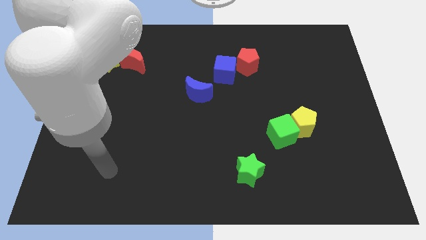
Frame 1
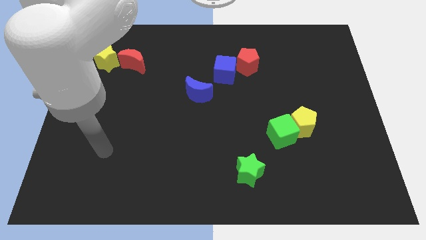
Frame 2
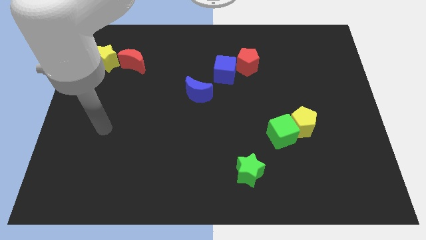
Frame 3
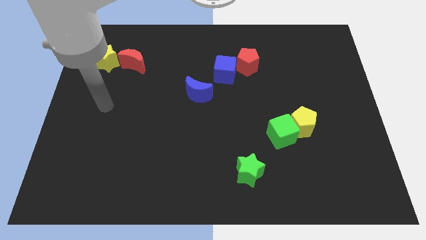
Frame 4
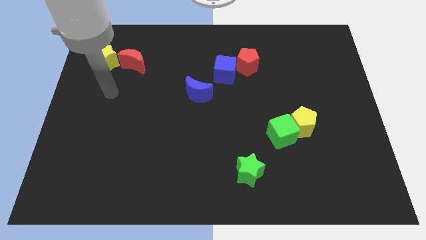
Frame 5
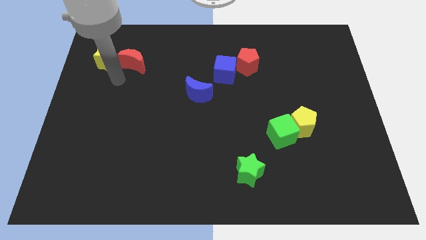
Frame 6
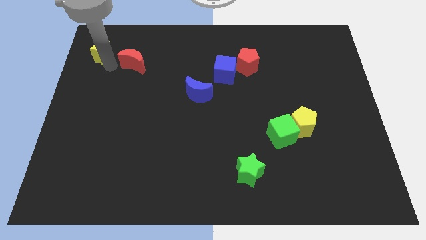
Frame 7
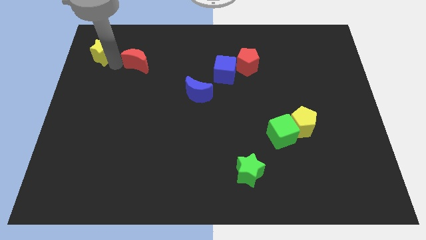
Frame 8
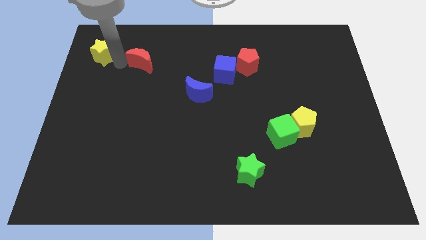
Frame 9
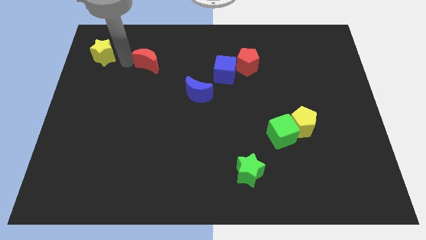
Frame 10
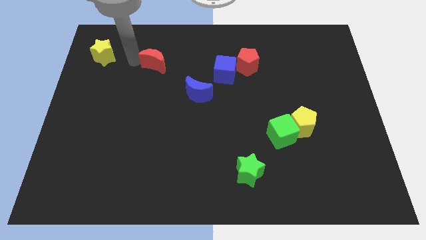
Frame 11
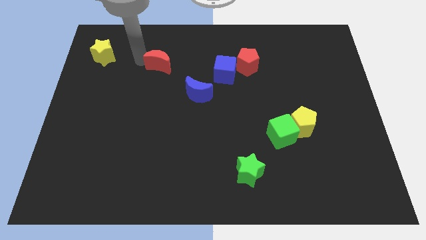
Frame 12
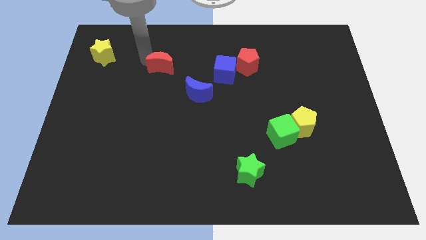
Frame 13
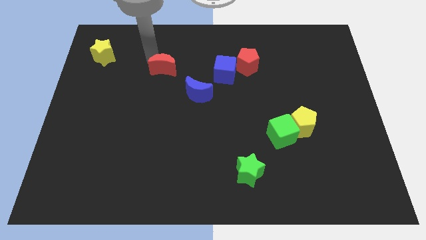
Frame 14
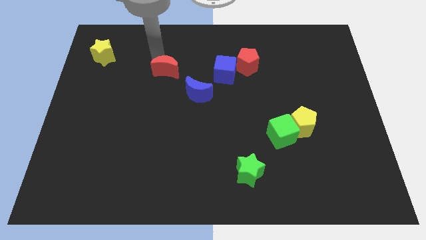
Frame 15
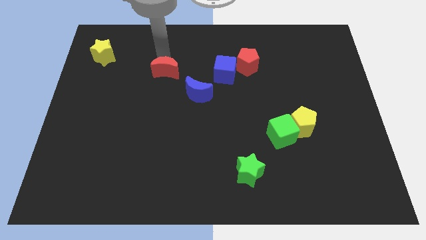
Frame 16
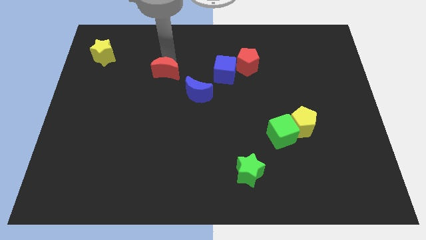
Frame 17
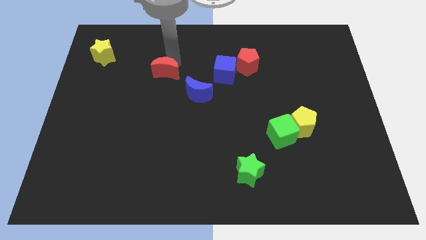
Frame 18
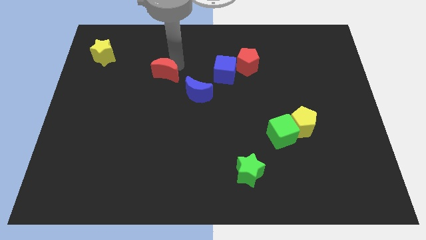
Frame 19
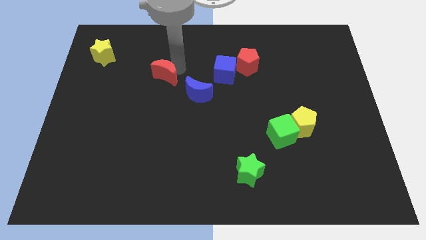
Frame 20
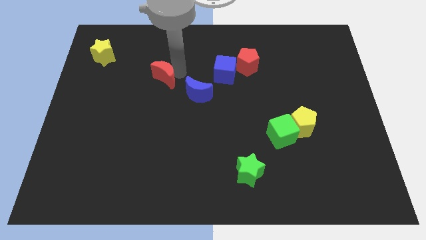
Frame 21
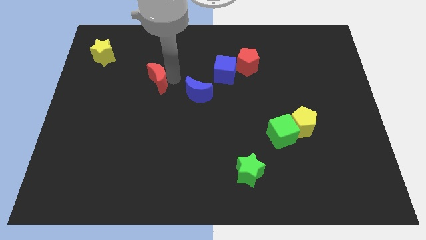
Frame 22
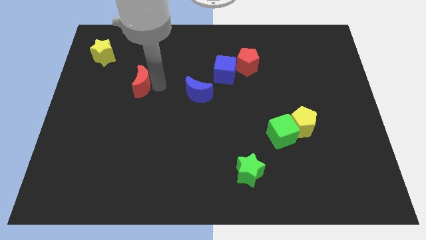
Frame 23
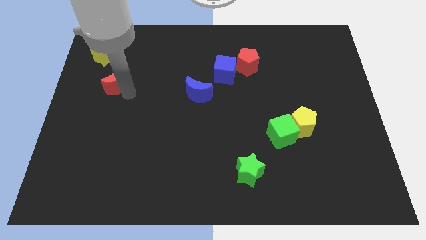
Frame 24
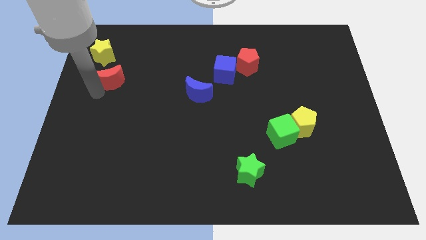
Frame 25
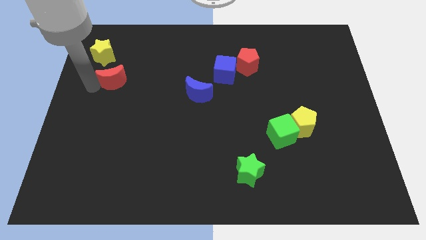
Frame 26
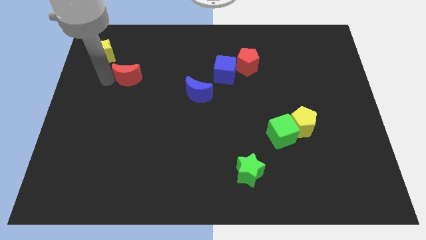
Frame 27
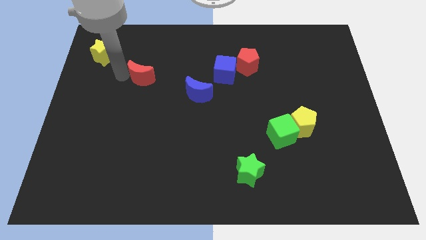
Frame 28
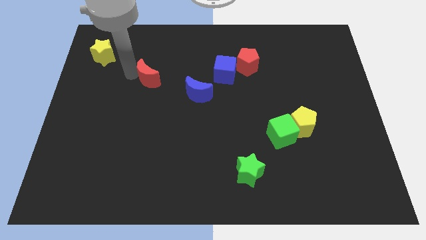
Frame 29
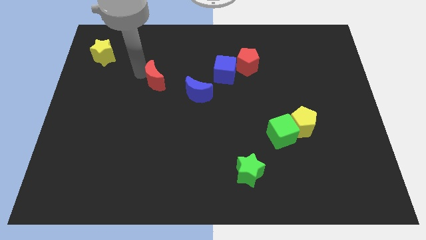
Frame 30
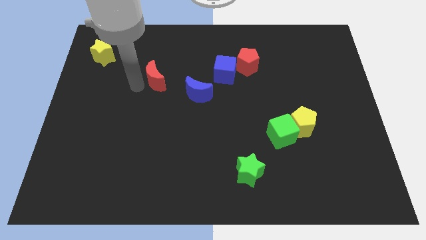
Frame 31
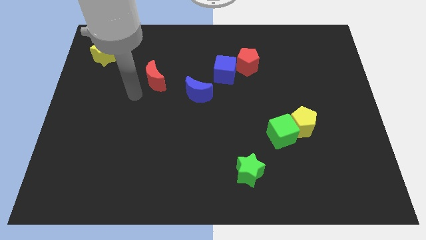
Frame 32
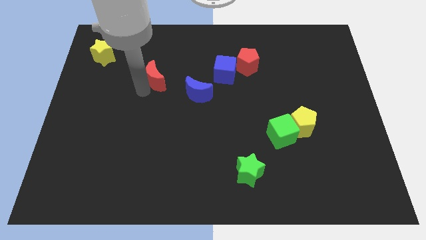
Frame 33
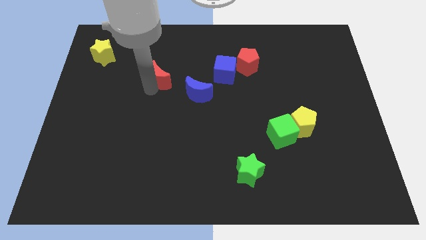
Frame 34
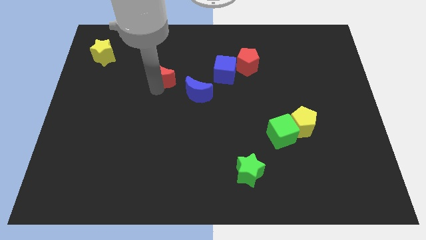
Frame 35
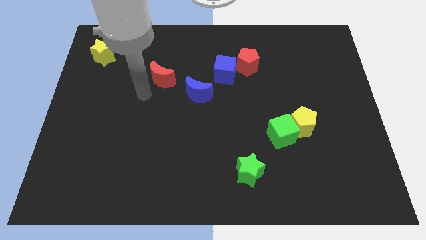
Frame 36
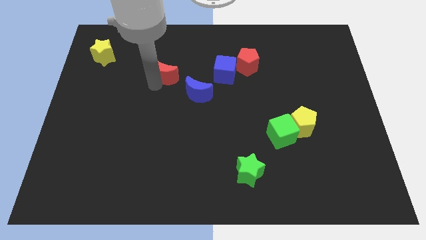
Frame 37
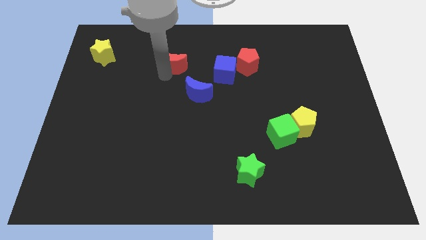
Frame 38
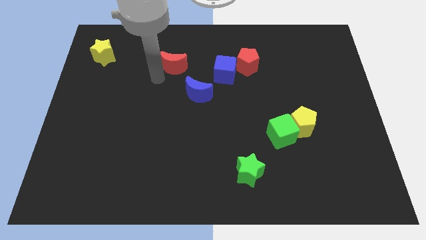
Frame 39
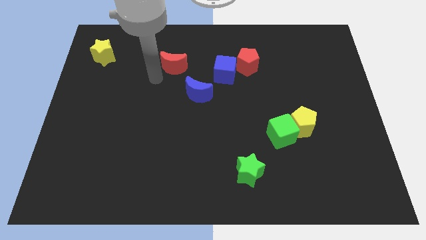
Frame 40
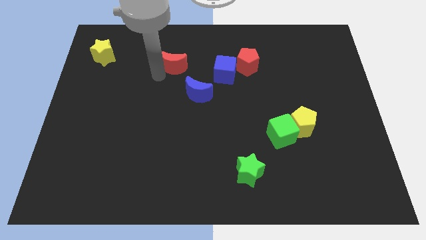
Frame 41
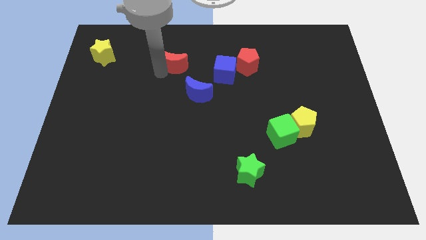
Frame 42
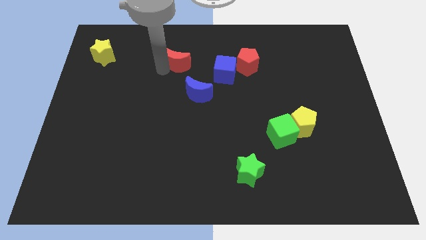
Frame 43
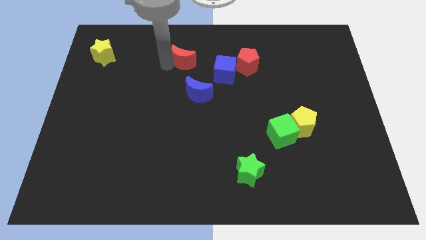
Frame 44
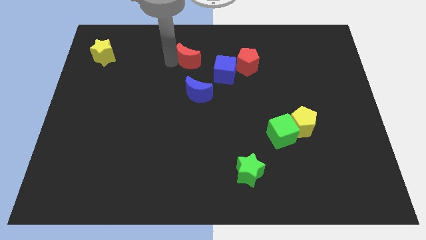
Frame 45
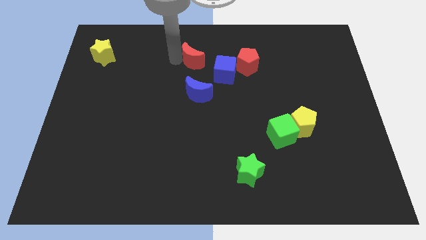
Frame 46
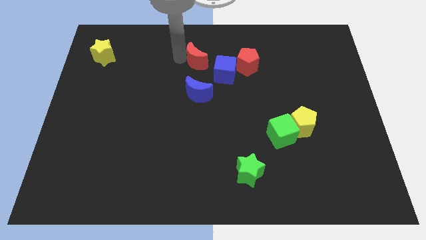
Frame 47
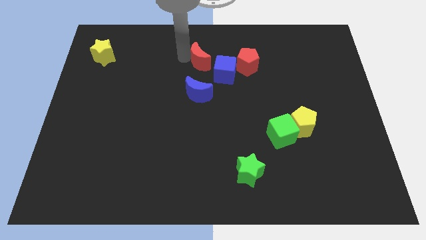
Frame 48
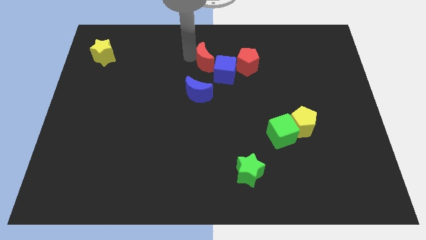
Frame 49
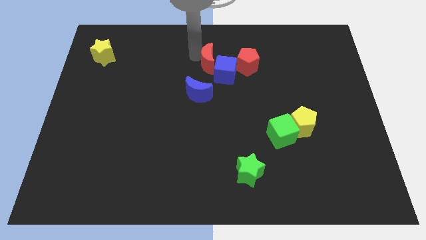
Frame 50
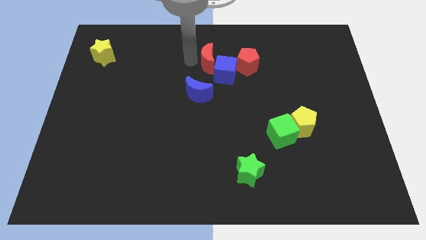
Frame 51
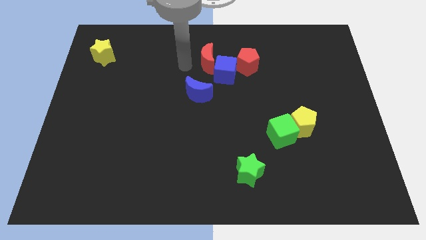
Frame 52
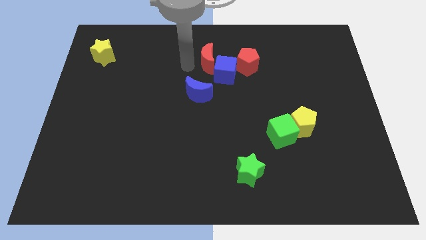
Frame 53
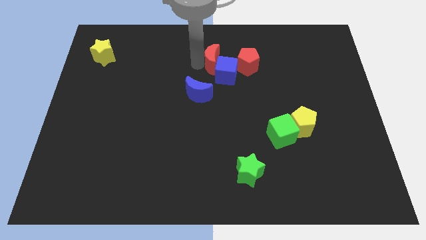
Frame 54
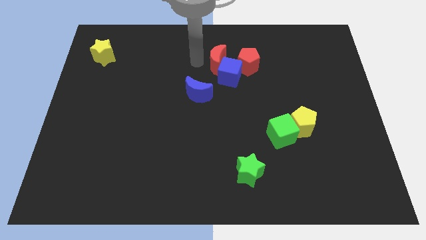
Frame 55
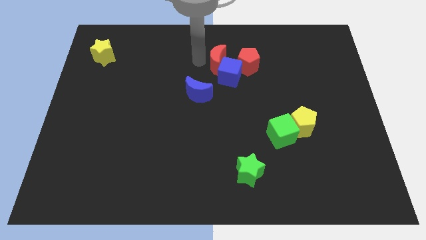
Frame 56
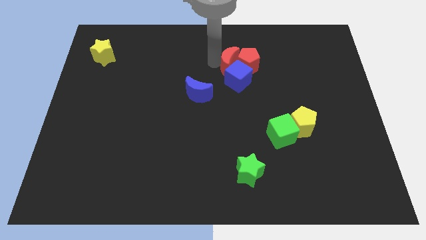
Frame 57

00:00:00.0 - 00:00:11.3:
put the red moon towards the red pentagon

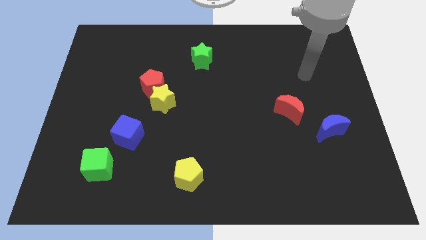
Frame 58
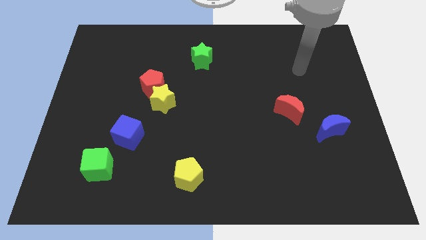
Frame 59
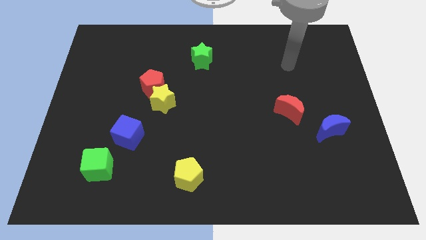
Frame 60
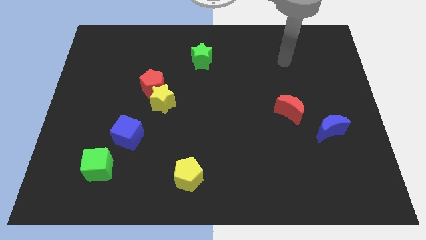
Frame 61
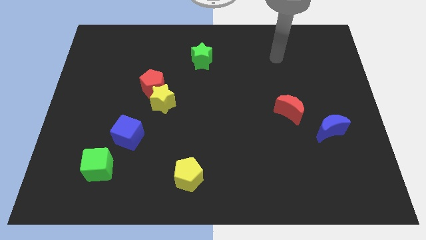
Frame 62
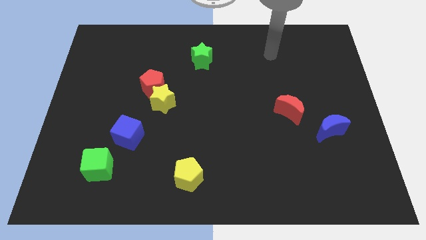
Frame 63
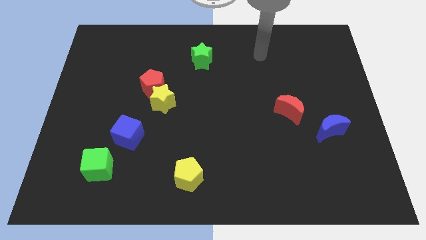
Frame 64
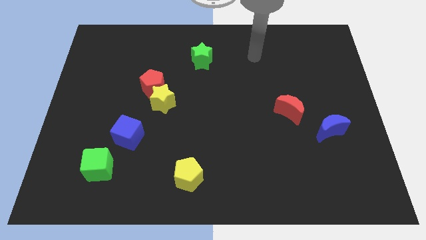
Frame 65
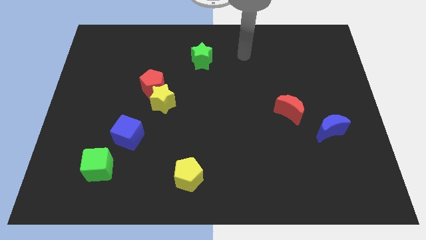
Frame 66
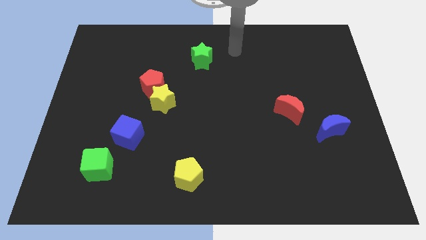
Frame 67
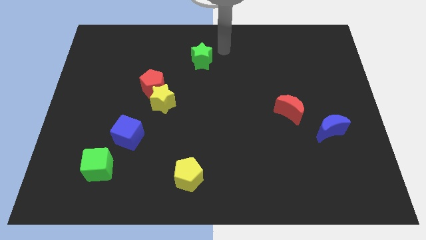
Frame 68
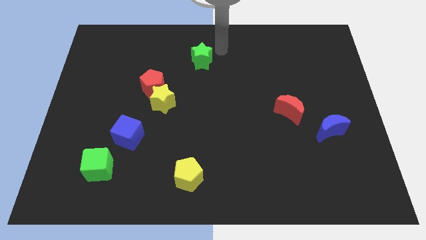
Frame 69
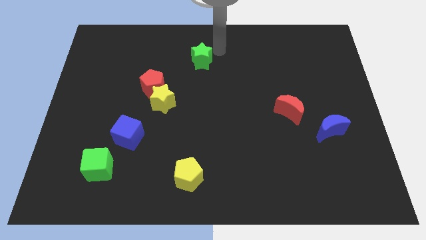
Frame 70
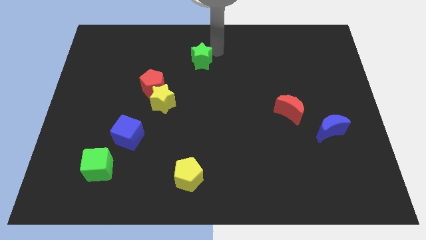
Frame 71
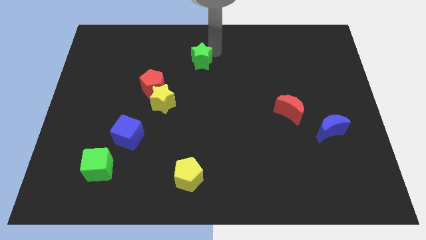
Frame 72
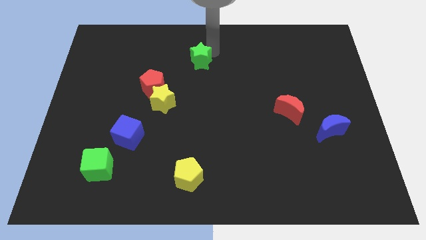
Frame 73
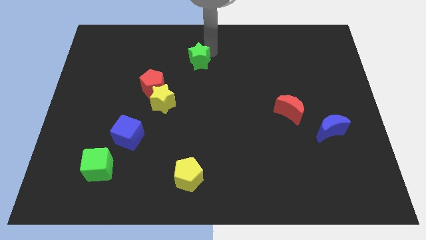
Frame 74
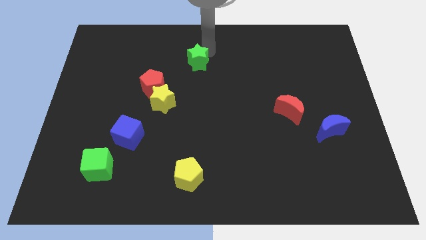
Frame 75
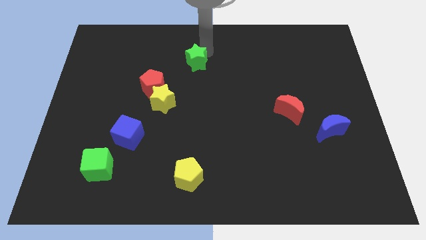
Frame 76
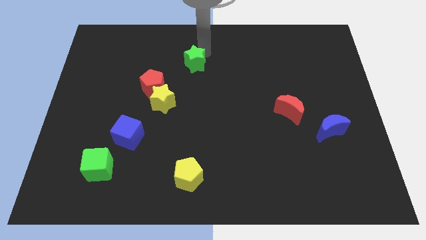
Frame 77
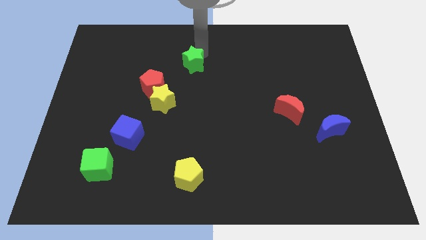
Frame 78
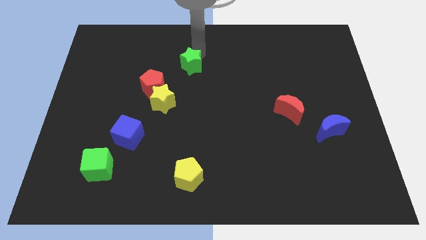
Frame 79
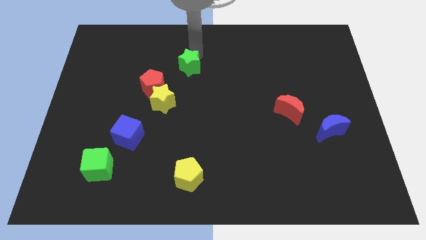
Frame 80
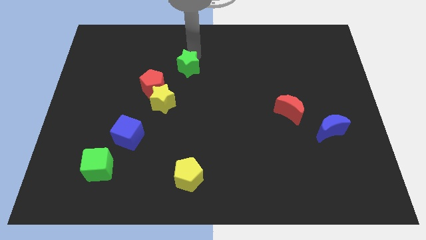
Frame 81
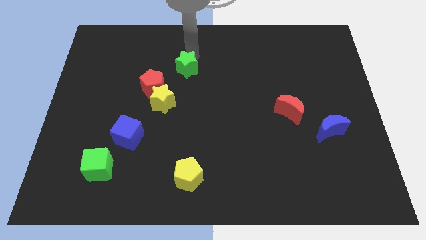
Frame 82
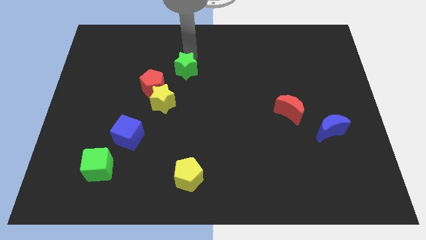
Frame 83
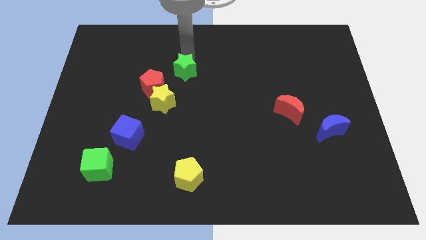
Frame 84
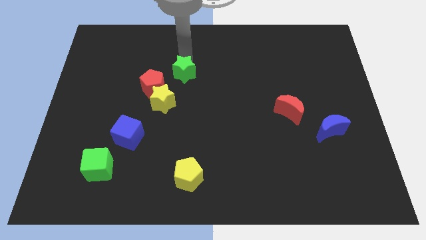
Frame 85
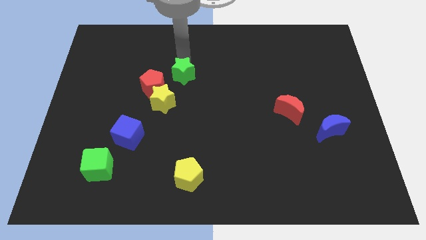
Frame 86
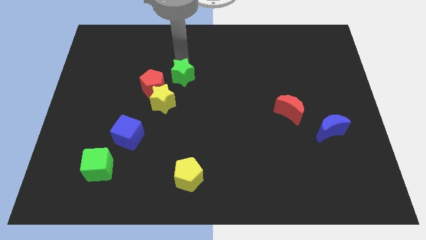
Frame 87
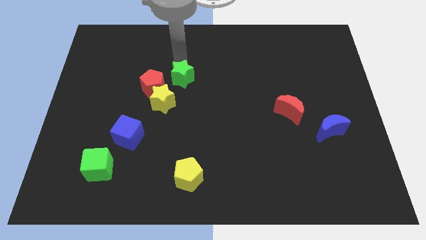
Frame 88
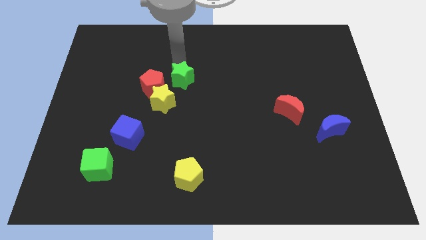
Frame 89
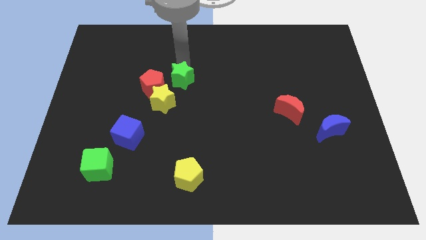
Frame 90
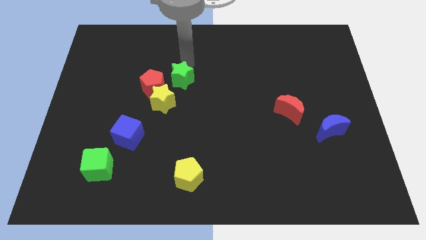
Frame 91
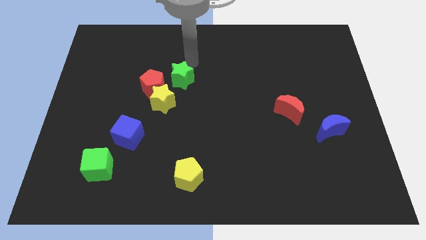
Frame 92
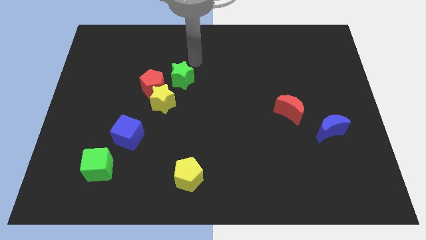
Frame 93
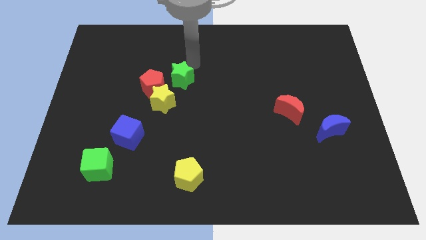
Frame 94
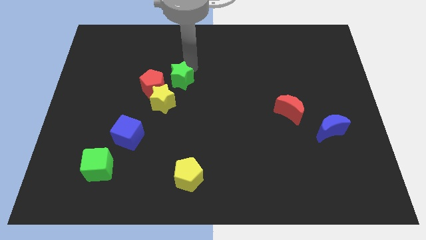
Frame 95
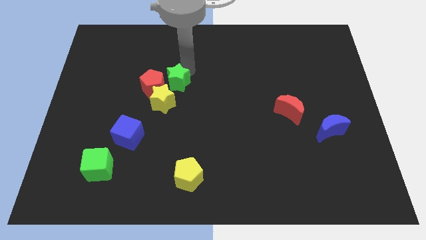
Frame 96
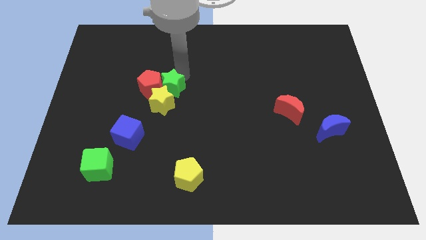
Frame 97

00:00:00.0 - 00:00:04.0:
slide the green star next to the yellow star
